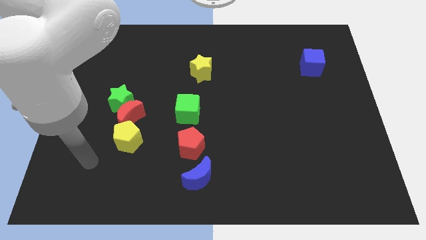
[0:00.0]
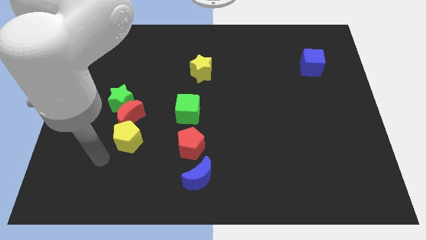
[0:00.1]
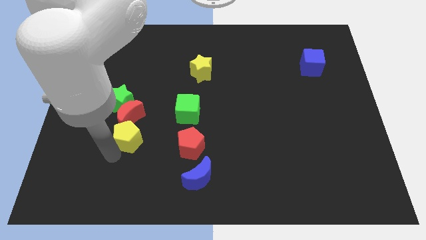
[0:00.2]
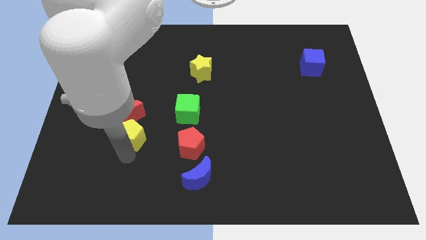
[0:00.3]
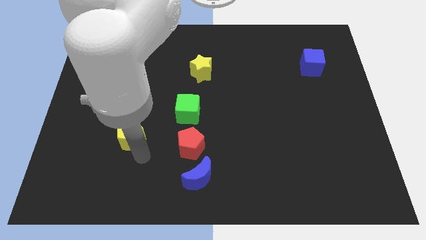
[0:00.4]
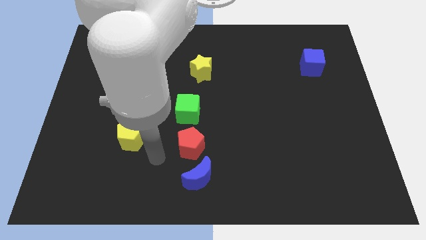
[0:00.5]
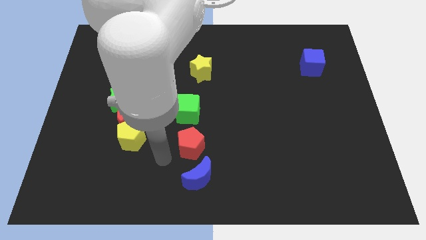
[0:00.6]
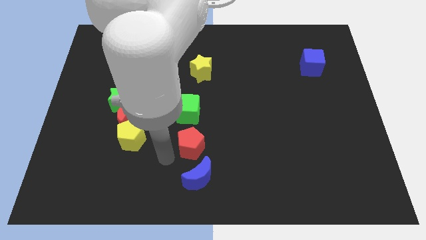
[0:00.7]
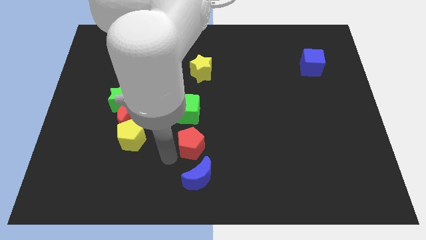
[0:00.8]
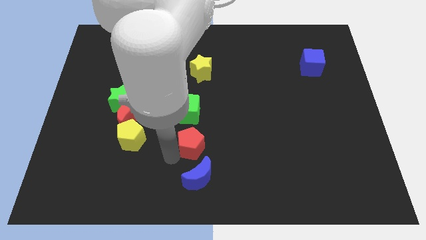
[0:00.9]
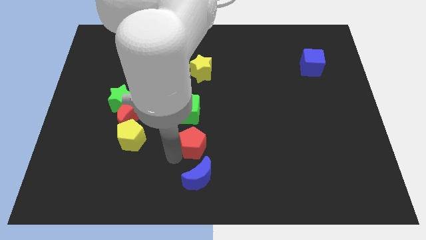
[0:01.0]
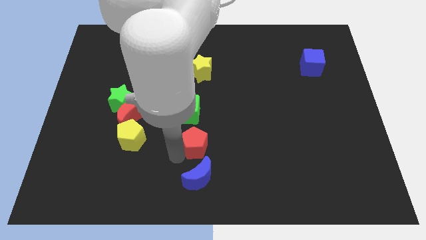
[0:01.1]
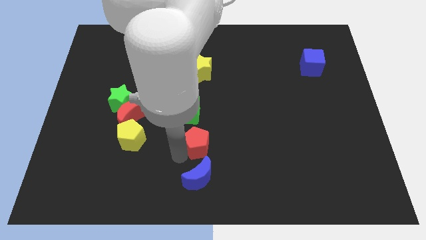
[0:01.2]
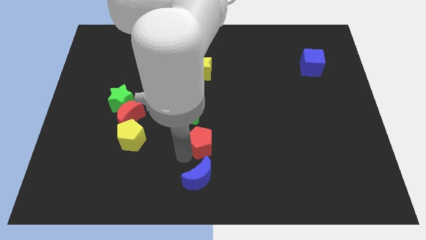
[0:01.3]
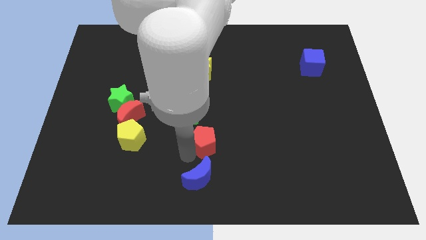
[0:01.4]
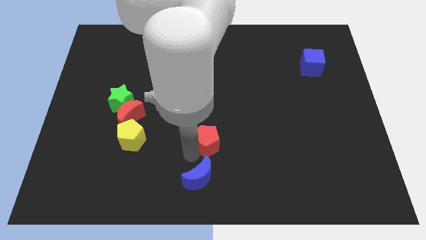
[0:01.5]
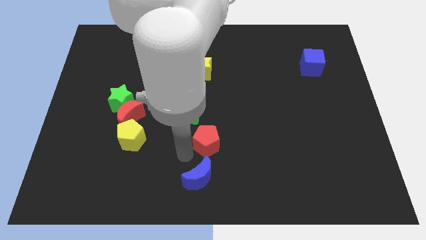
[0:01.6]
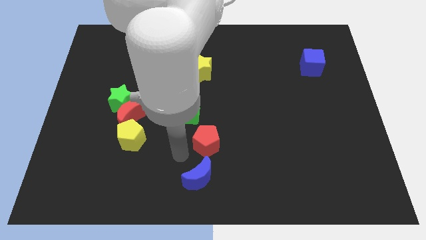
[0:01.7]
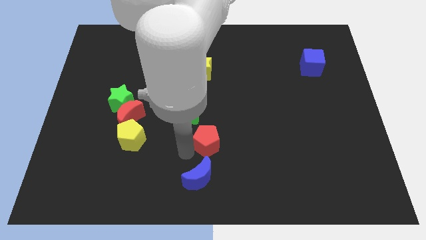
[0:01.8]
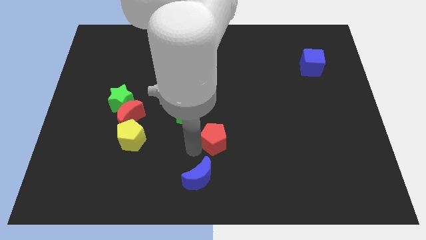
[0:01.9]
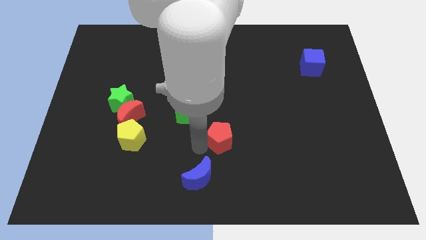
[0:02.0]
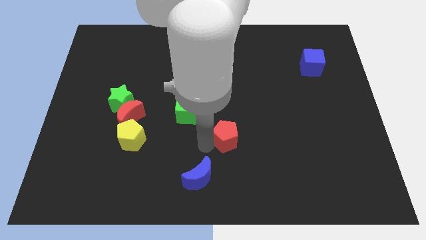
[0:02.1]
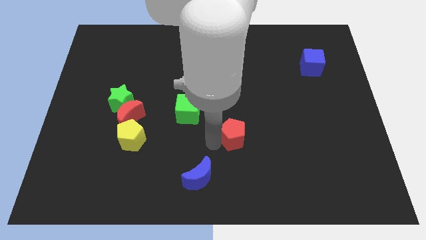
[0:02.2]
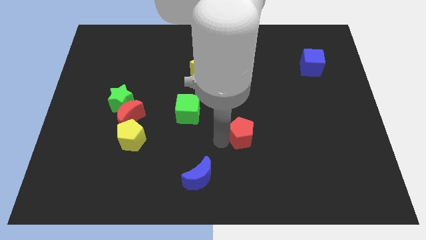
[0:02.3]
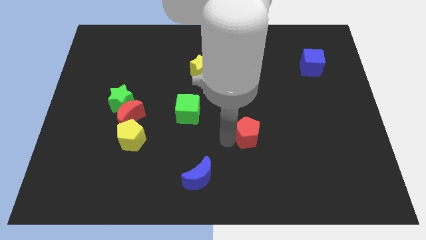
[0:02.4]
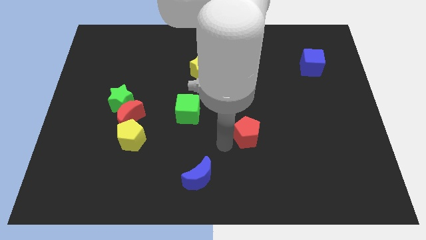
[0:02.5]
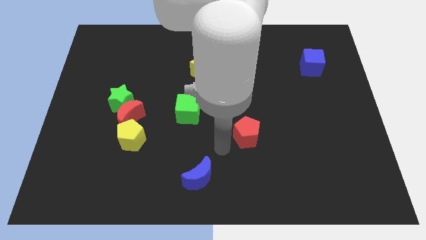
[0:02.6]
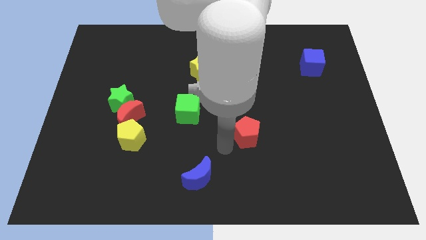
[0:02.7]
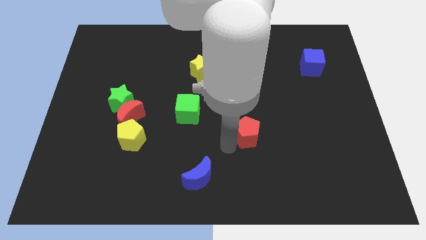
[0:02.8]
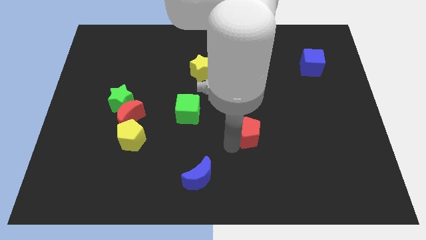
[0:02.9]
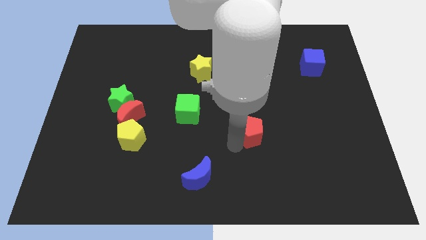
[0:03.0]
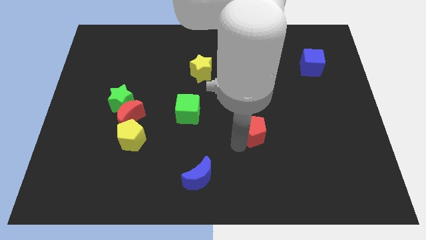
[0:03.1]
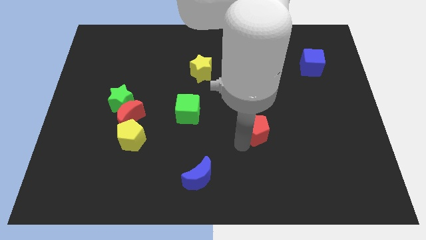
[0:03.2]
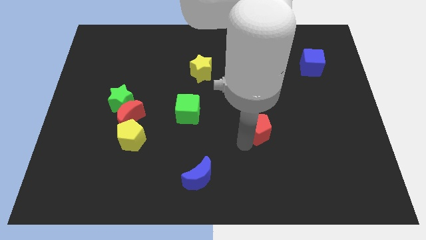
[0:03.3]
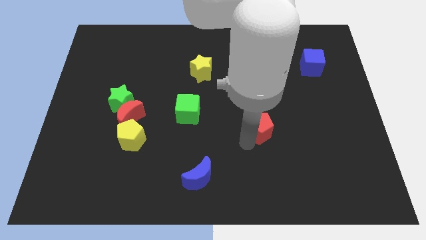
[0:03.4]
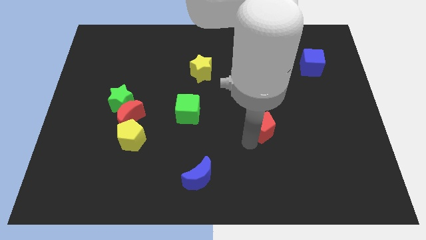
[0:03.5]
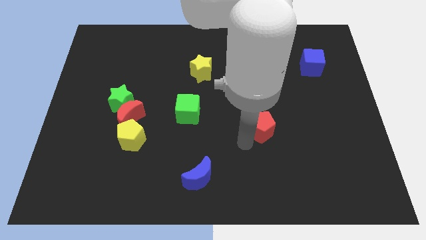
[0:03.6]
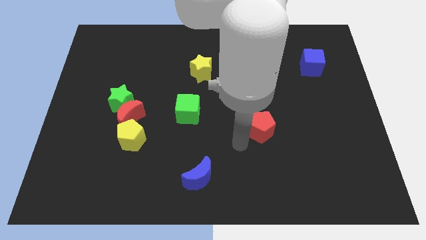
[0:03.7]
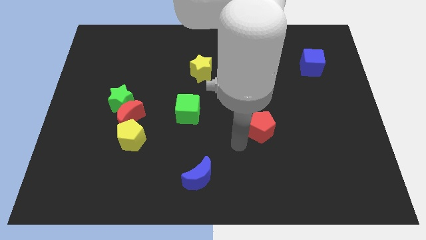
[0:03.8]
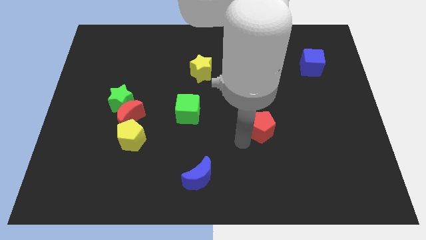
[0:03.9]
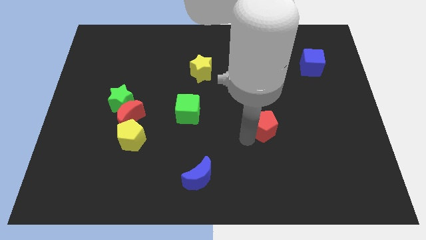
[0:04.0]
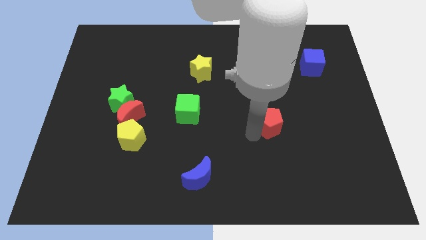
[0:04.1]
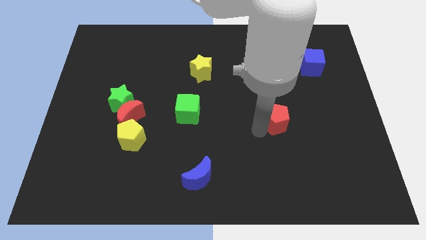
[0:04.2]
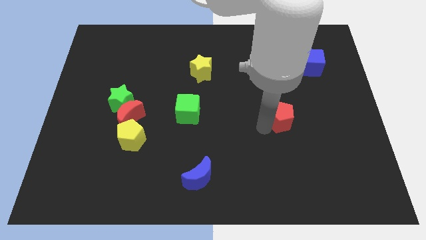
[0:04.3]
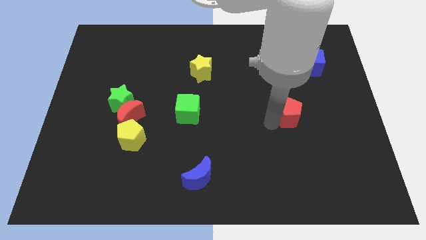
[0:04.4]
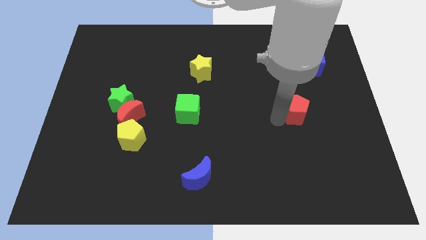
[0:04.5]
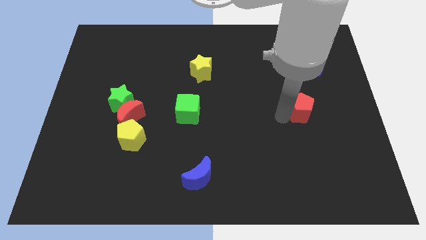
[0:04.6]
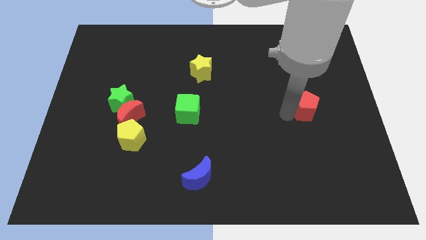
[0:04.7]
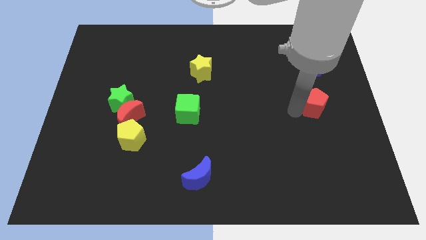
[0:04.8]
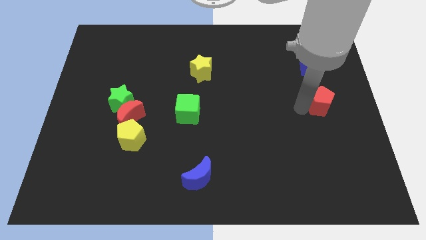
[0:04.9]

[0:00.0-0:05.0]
push the red pentagon to the right side
